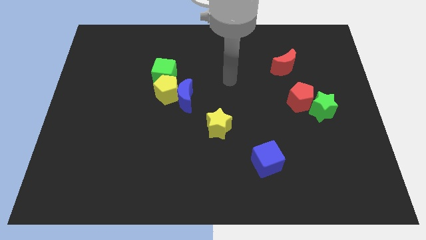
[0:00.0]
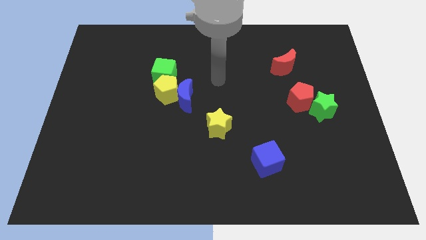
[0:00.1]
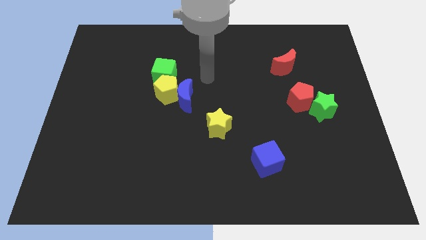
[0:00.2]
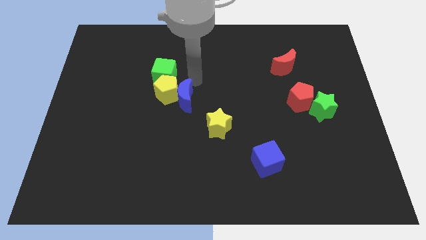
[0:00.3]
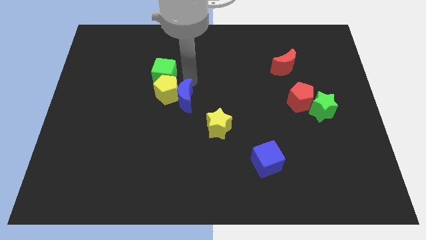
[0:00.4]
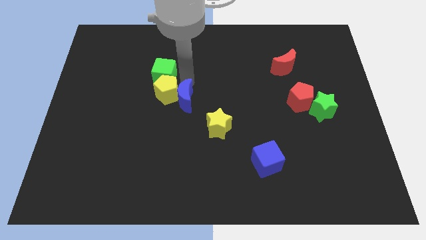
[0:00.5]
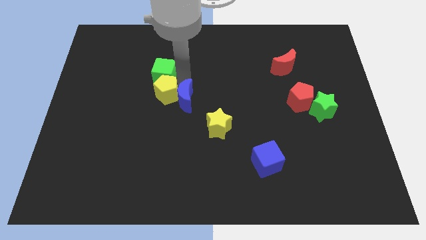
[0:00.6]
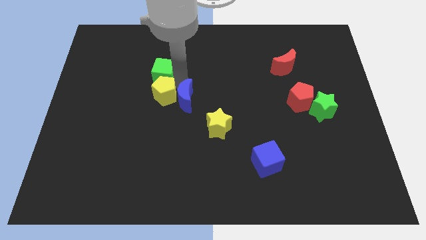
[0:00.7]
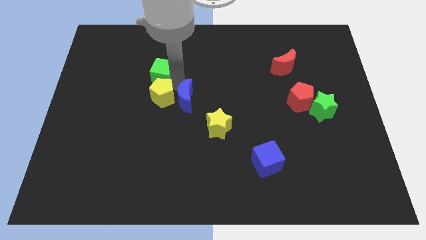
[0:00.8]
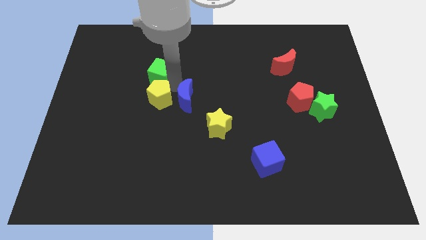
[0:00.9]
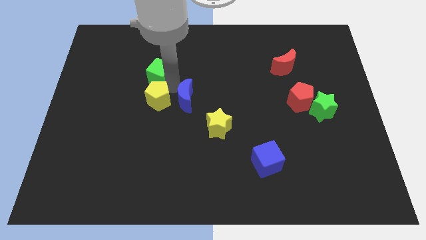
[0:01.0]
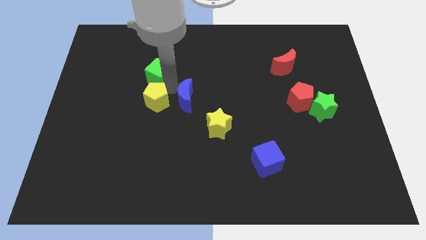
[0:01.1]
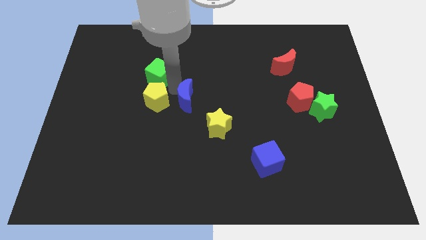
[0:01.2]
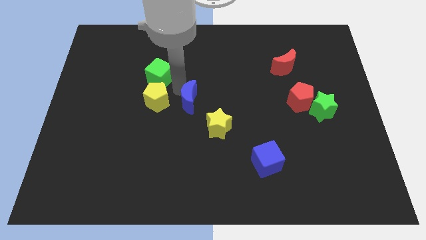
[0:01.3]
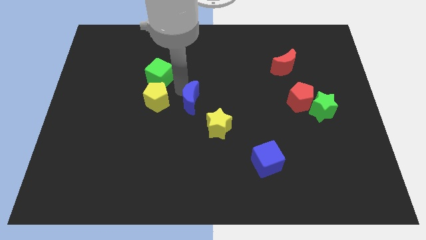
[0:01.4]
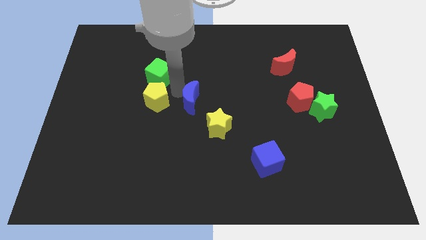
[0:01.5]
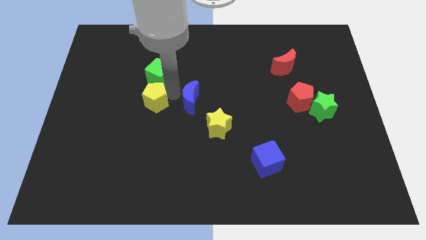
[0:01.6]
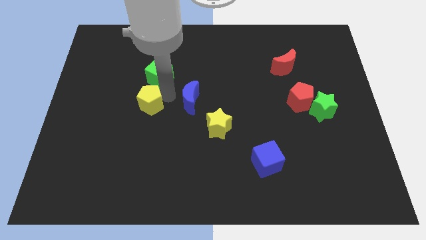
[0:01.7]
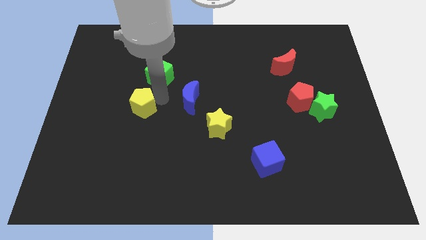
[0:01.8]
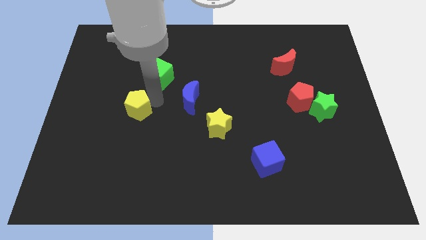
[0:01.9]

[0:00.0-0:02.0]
move the yellow pentagon away from the blue moon and green cube

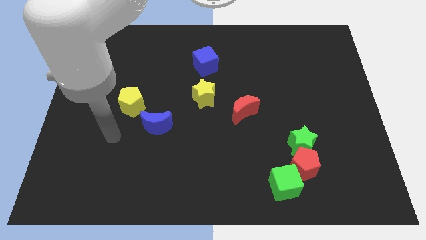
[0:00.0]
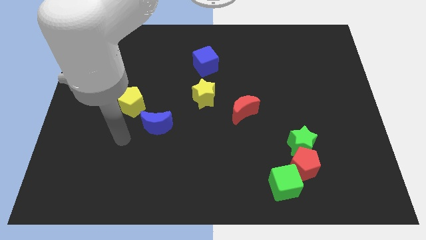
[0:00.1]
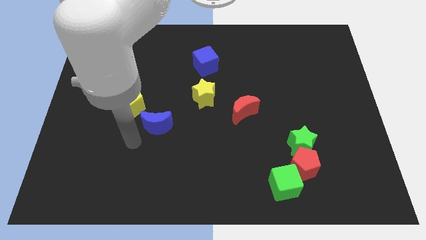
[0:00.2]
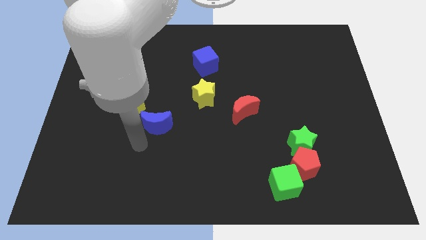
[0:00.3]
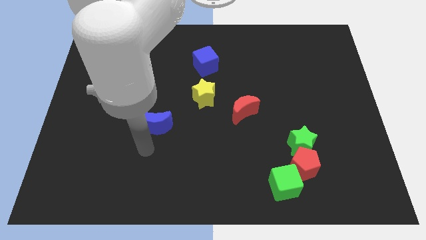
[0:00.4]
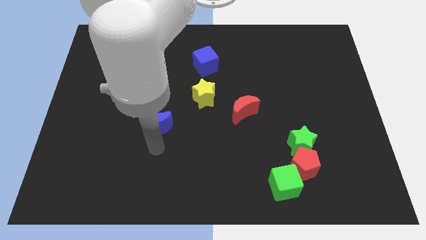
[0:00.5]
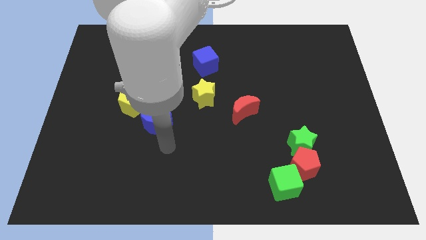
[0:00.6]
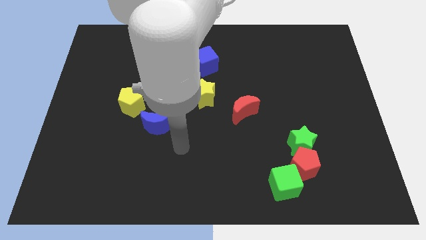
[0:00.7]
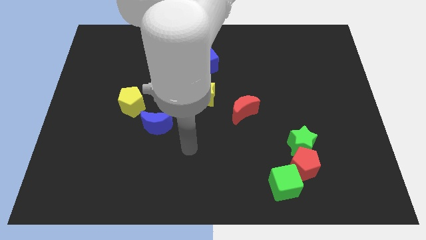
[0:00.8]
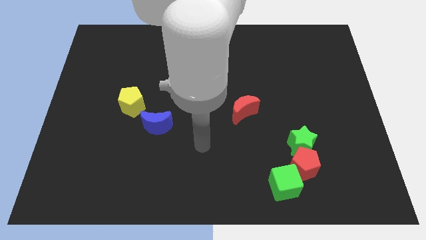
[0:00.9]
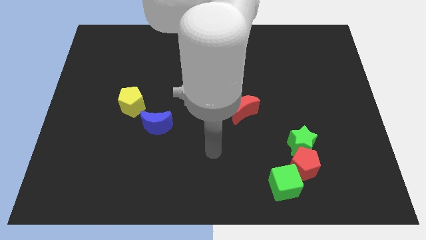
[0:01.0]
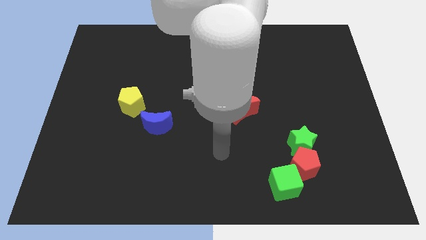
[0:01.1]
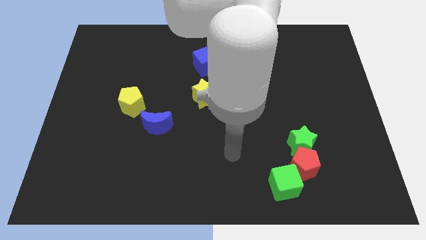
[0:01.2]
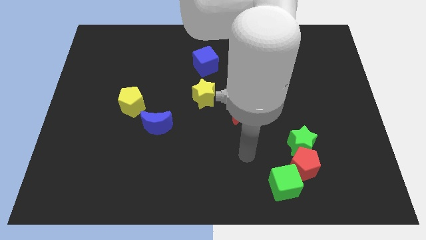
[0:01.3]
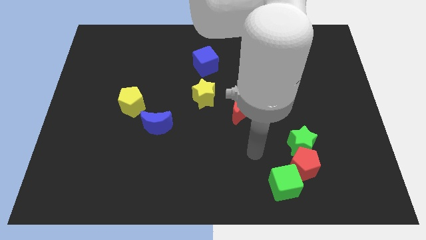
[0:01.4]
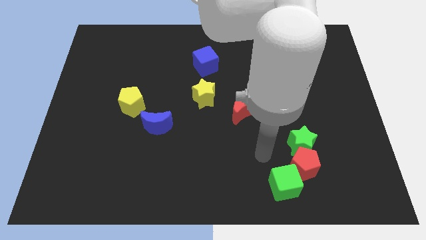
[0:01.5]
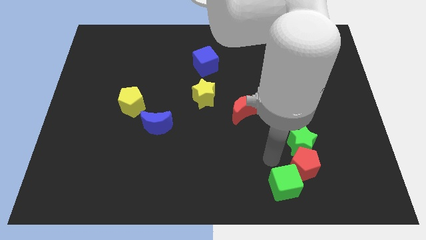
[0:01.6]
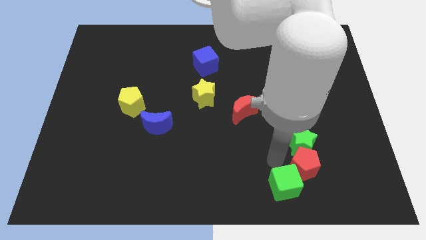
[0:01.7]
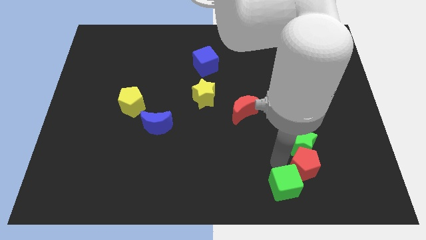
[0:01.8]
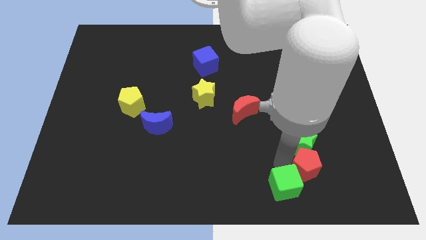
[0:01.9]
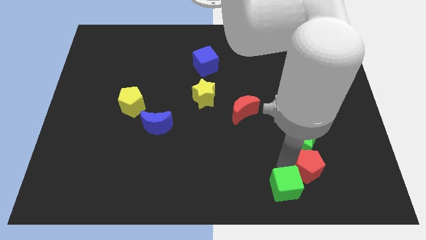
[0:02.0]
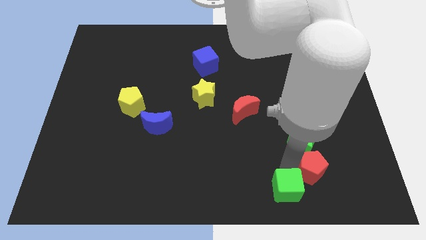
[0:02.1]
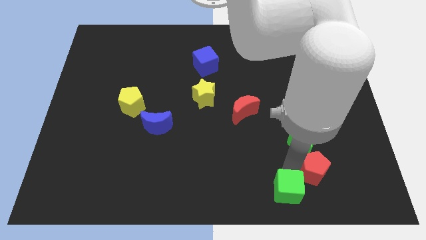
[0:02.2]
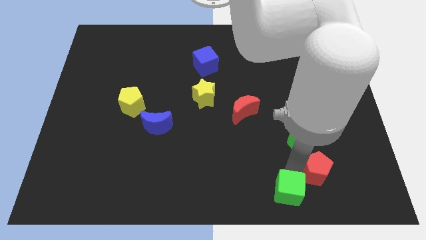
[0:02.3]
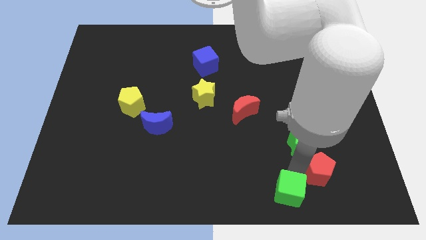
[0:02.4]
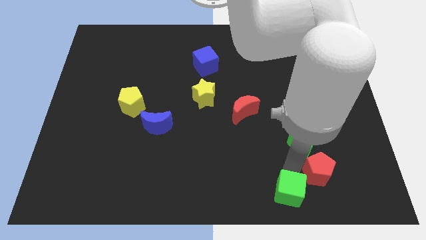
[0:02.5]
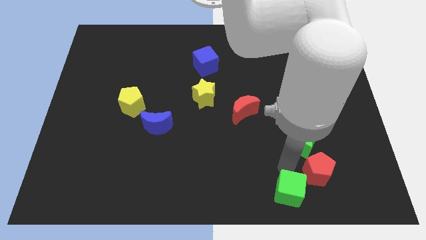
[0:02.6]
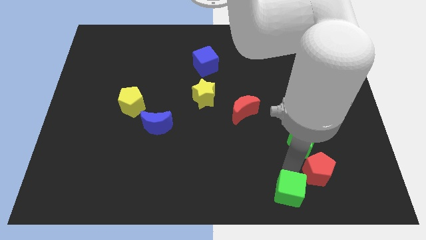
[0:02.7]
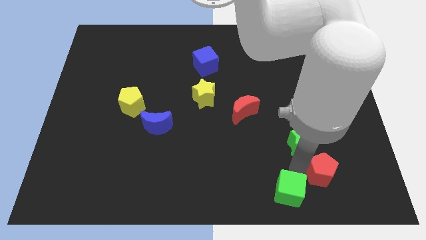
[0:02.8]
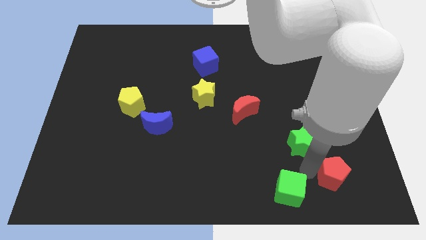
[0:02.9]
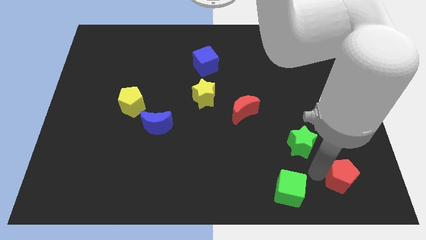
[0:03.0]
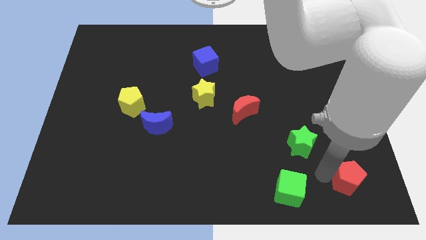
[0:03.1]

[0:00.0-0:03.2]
move the red pentagon away from the green star and green cube

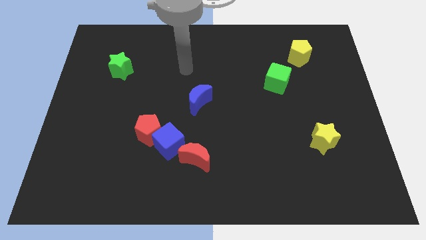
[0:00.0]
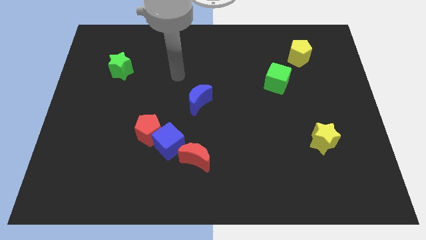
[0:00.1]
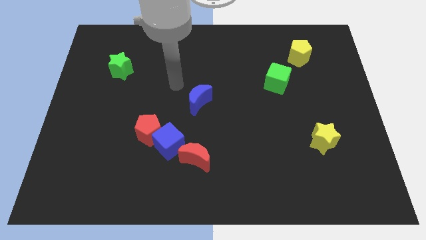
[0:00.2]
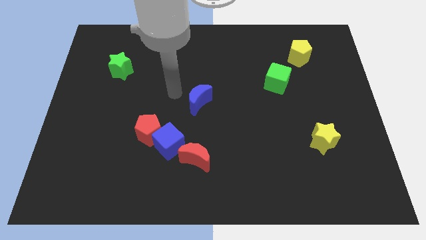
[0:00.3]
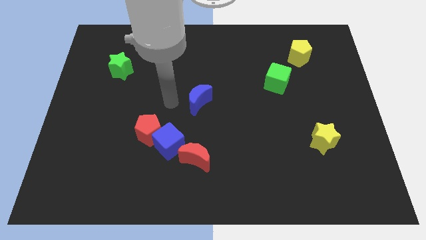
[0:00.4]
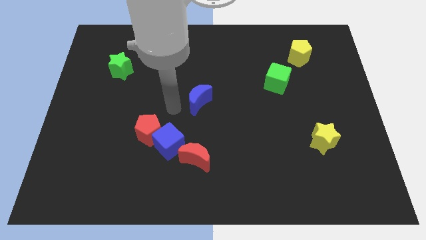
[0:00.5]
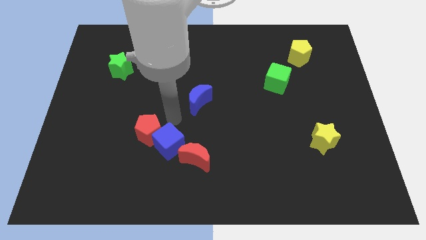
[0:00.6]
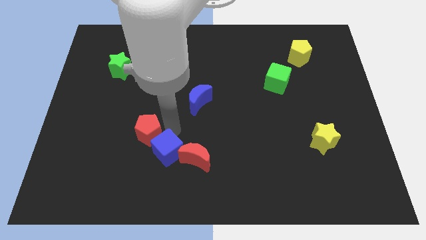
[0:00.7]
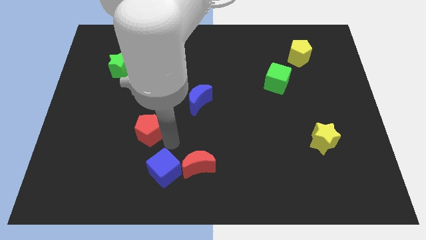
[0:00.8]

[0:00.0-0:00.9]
move the red pentagon away from the blue cube

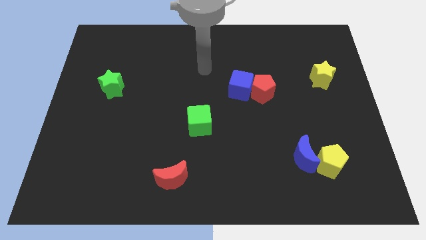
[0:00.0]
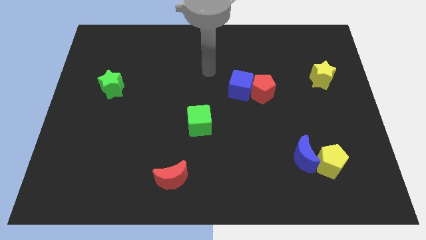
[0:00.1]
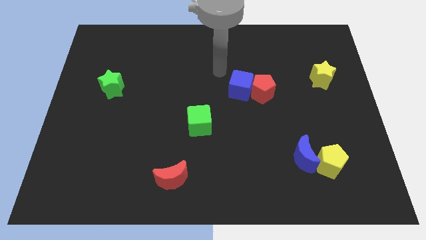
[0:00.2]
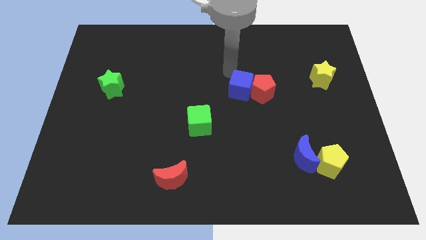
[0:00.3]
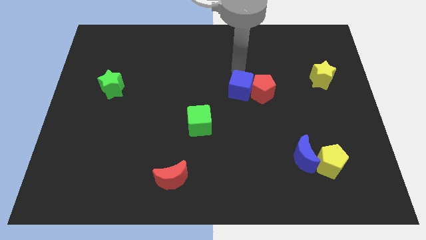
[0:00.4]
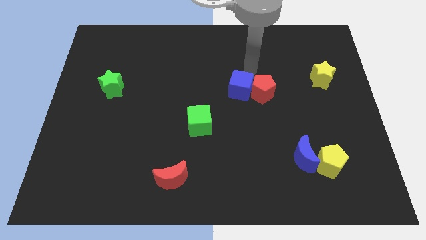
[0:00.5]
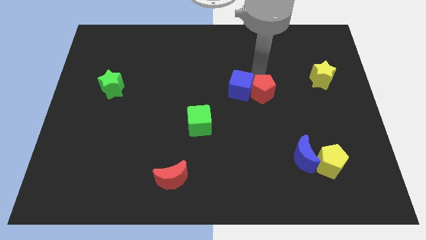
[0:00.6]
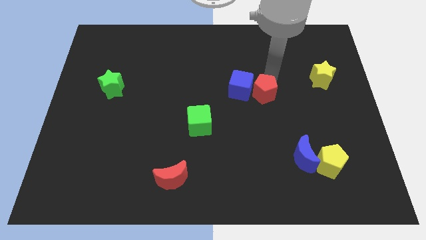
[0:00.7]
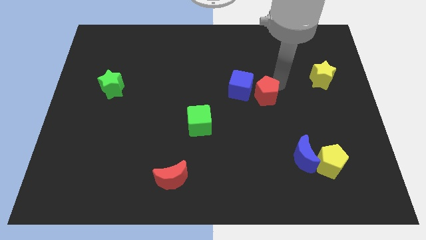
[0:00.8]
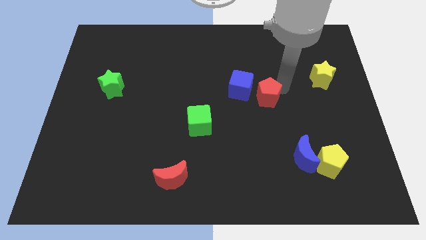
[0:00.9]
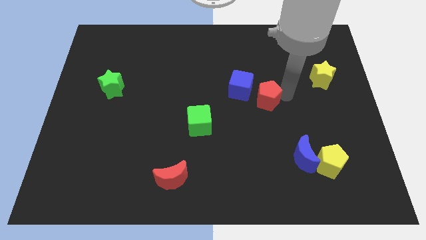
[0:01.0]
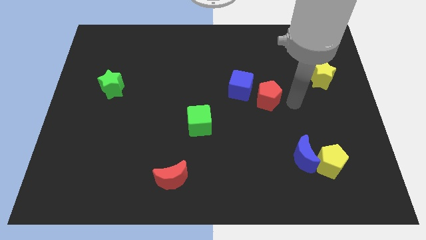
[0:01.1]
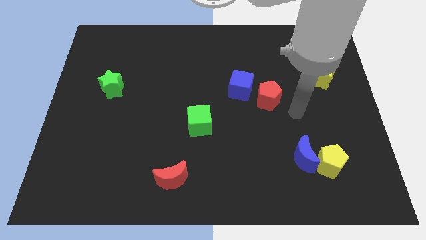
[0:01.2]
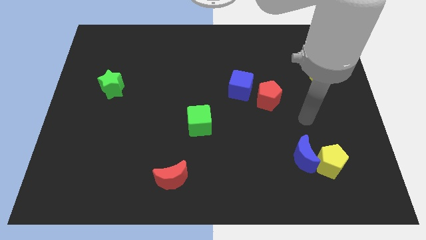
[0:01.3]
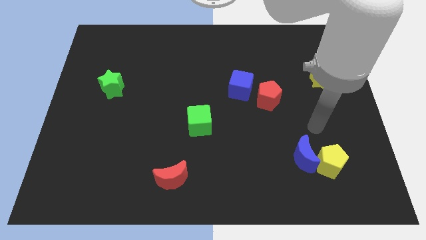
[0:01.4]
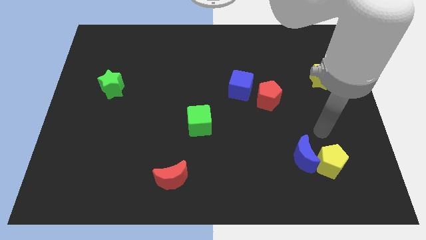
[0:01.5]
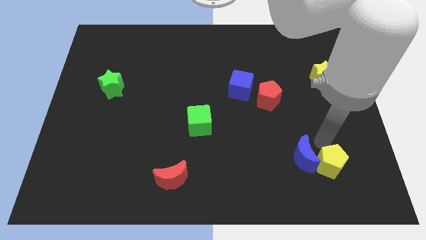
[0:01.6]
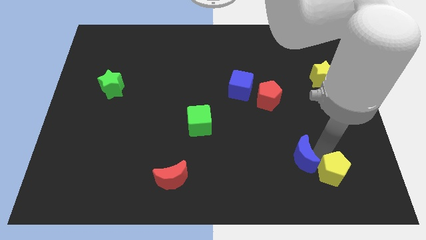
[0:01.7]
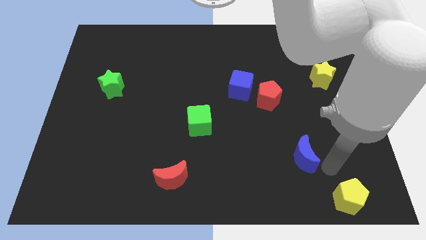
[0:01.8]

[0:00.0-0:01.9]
separate the blue moon from the yellow pentagon

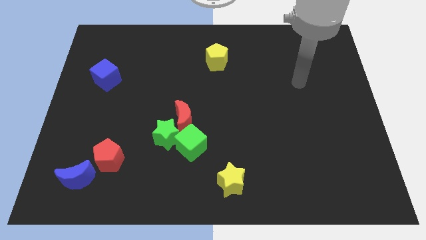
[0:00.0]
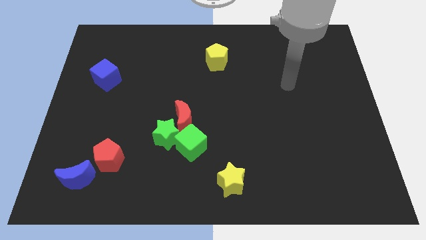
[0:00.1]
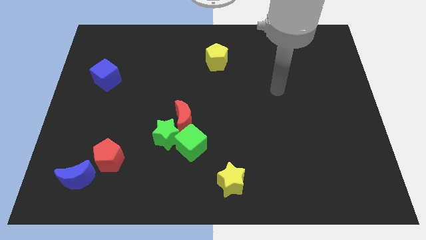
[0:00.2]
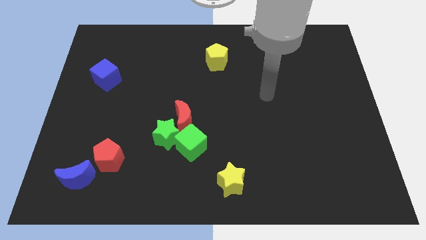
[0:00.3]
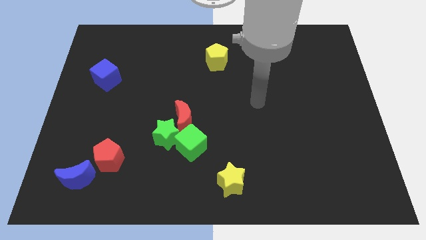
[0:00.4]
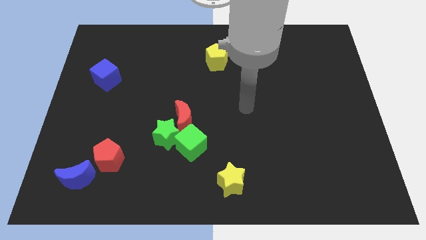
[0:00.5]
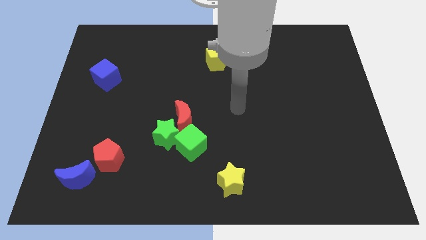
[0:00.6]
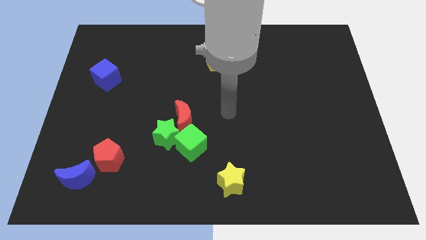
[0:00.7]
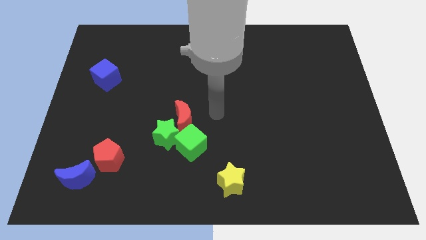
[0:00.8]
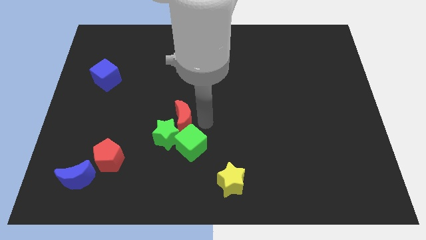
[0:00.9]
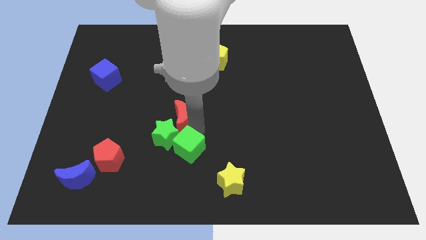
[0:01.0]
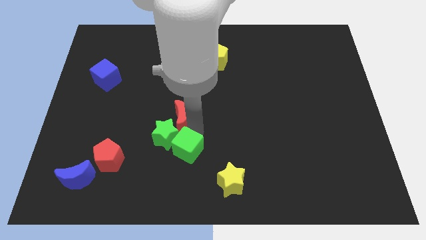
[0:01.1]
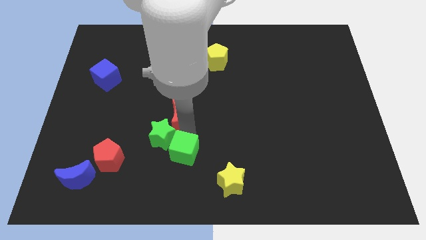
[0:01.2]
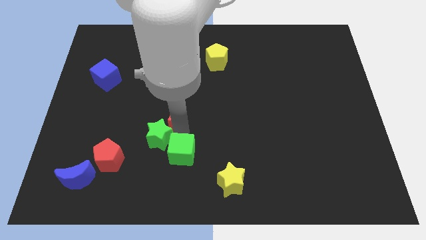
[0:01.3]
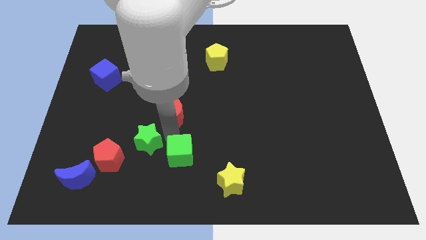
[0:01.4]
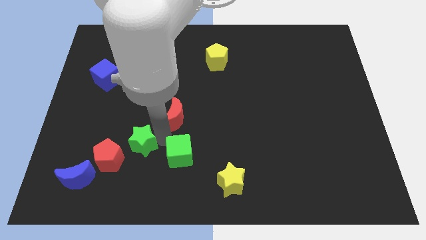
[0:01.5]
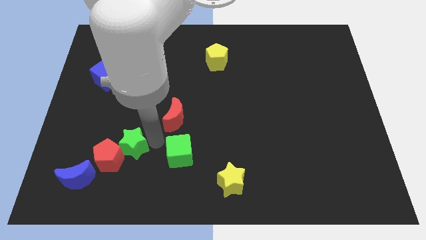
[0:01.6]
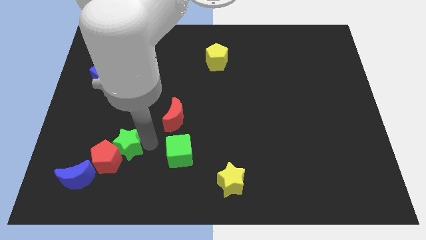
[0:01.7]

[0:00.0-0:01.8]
separate the green star from the green cube and red moon
